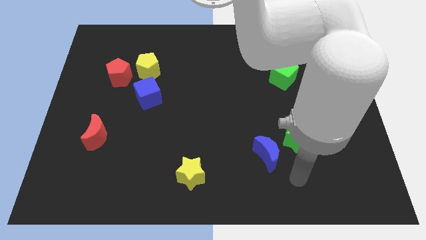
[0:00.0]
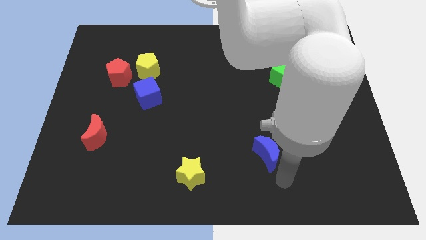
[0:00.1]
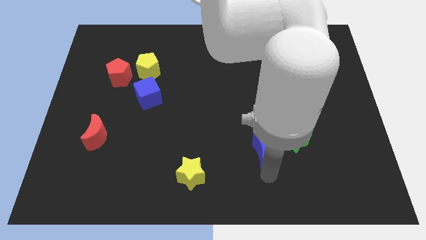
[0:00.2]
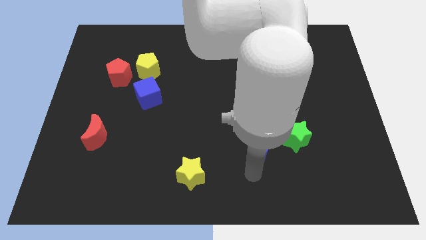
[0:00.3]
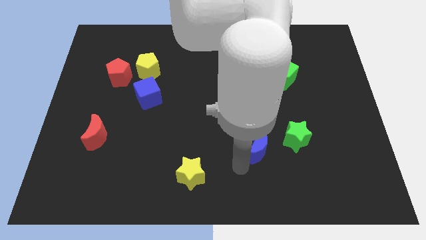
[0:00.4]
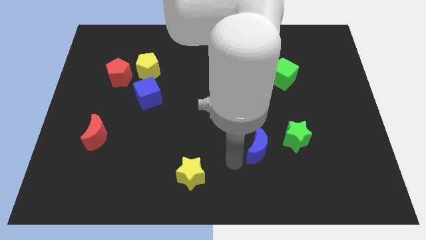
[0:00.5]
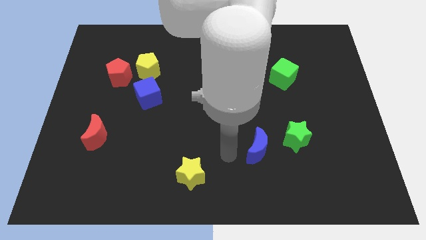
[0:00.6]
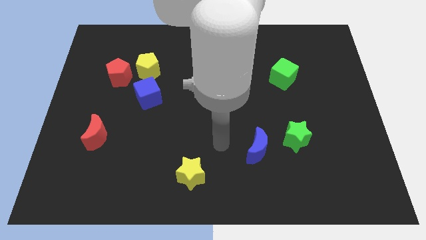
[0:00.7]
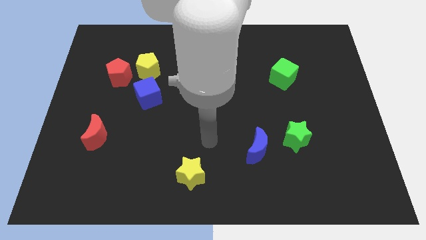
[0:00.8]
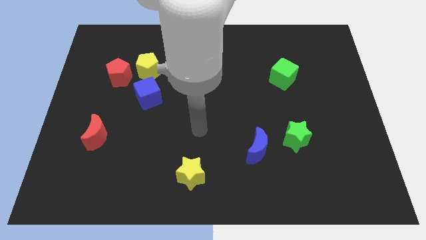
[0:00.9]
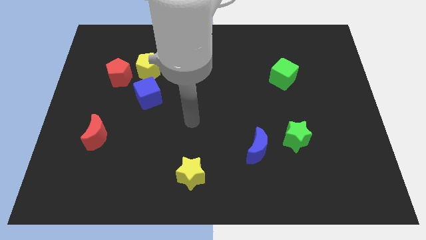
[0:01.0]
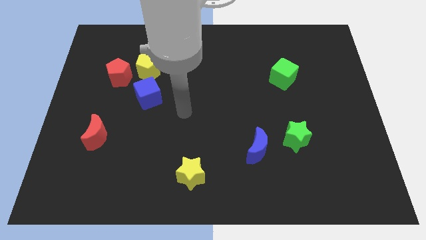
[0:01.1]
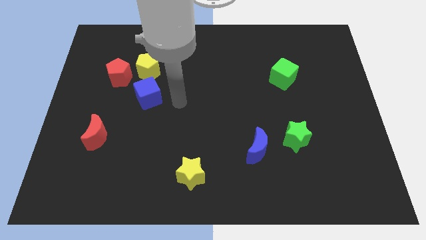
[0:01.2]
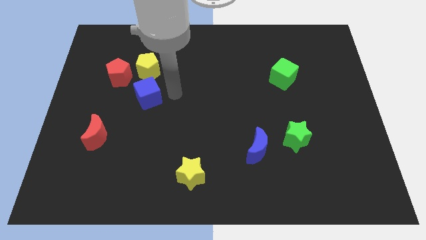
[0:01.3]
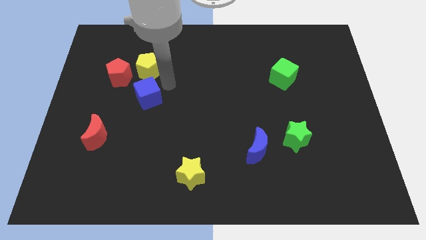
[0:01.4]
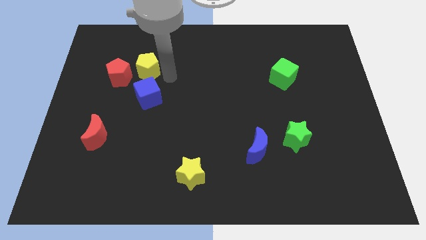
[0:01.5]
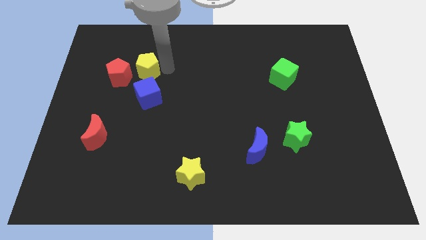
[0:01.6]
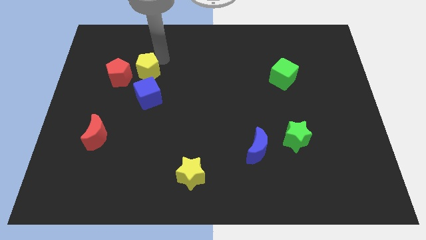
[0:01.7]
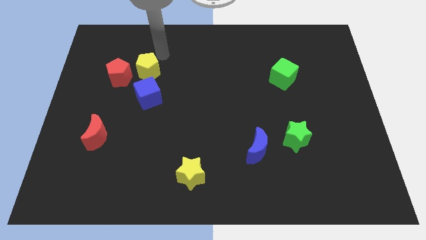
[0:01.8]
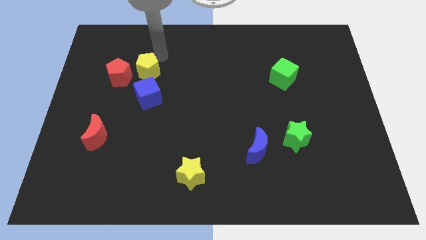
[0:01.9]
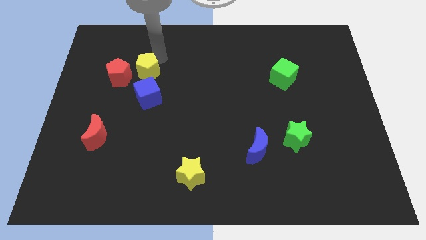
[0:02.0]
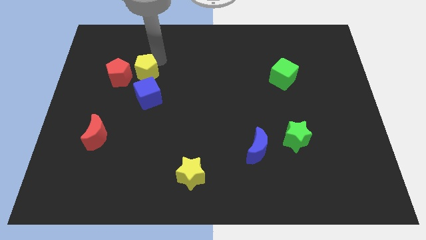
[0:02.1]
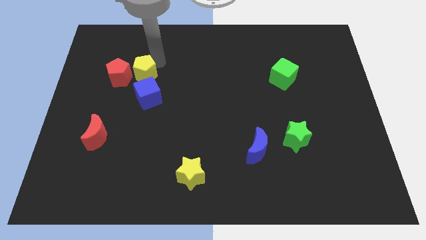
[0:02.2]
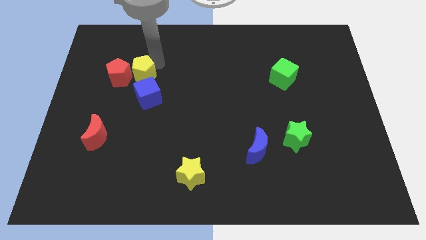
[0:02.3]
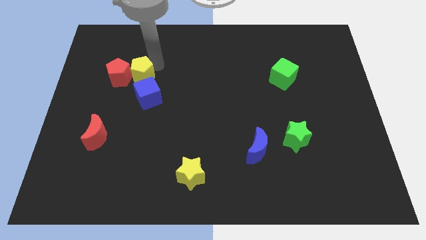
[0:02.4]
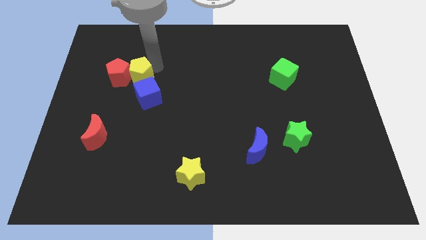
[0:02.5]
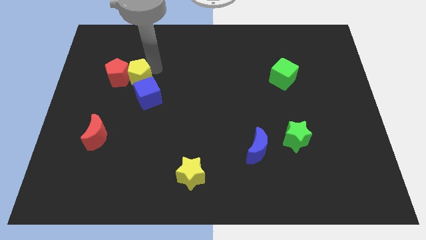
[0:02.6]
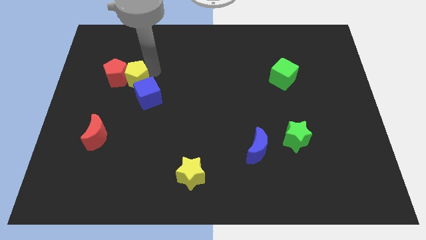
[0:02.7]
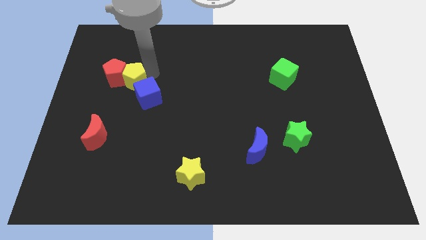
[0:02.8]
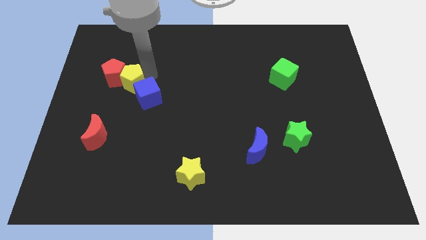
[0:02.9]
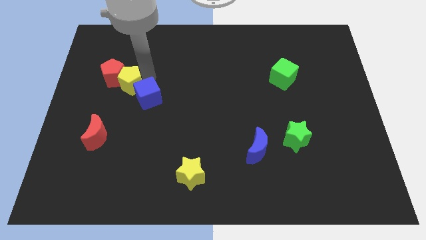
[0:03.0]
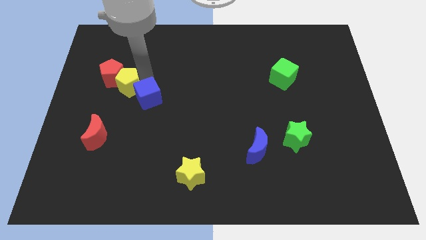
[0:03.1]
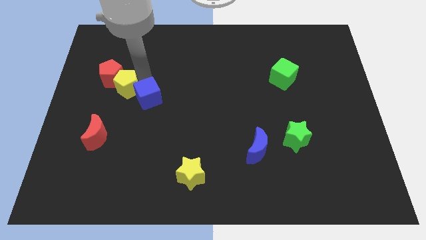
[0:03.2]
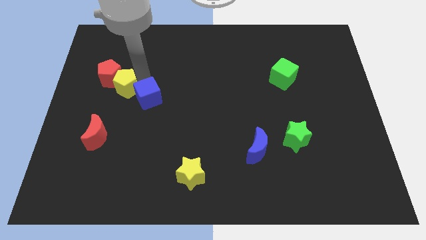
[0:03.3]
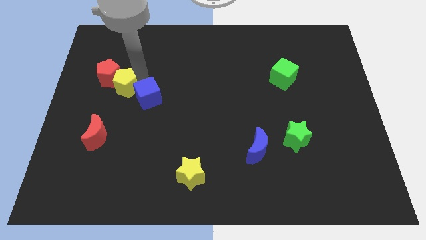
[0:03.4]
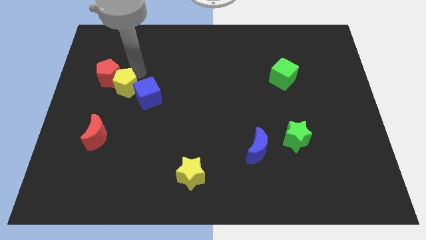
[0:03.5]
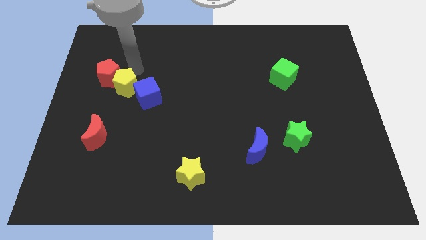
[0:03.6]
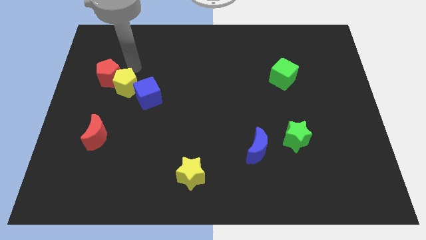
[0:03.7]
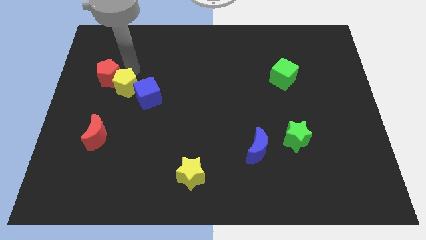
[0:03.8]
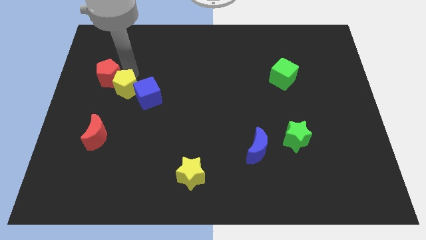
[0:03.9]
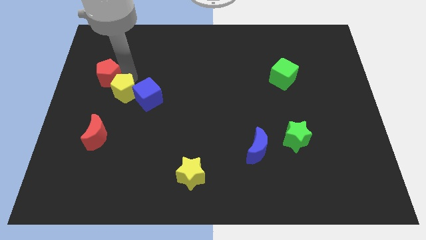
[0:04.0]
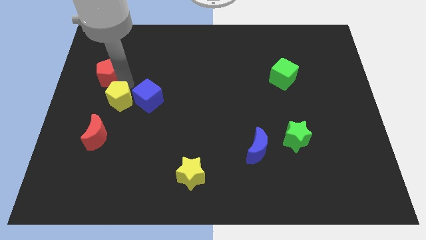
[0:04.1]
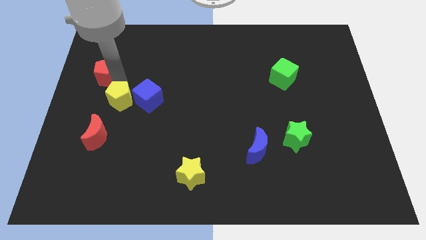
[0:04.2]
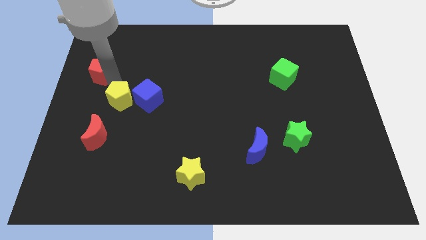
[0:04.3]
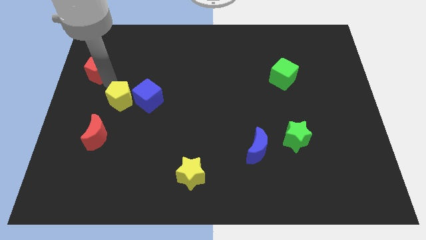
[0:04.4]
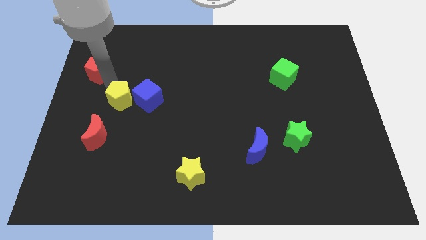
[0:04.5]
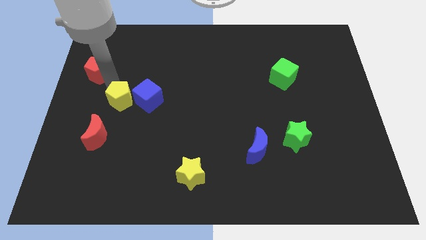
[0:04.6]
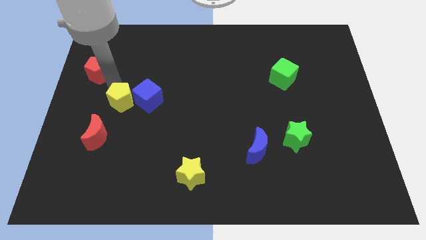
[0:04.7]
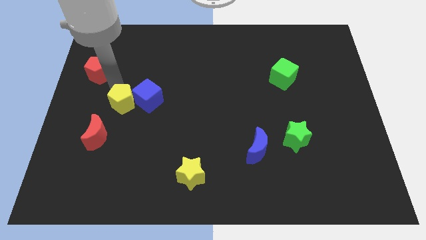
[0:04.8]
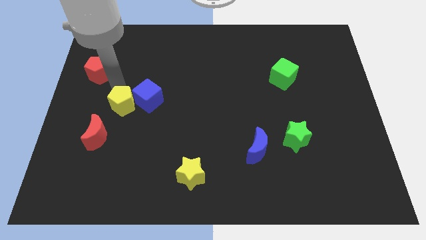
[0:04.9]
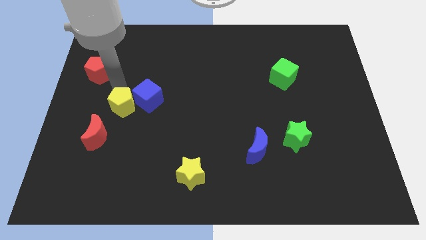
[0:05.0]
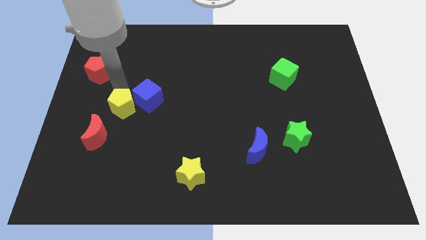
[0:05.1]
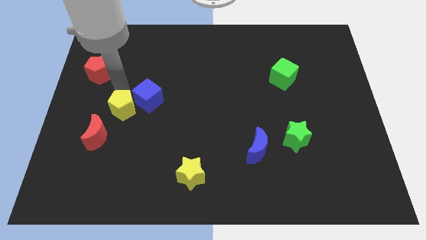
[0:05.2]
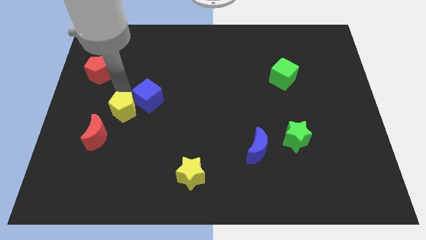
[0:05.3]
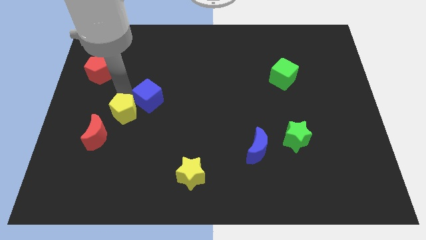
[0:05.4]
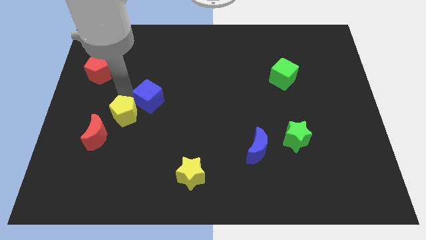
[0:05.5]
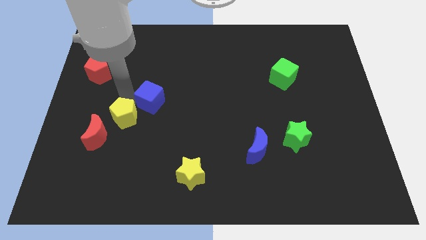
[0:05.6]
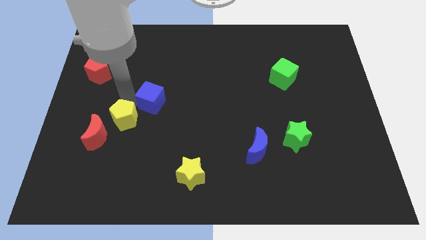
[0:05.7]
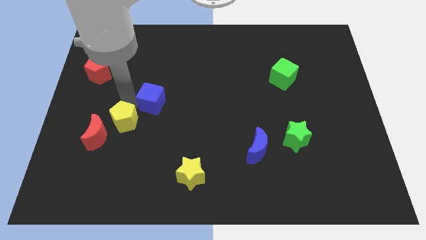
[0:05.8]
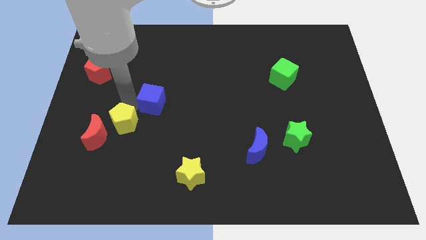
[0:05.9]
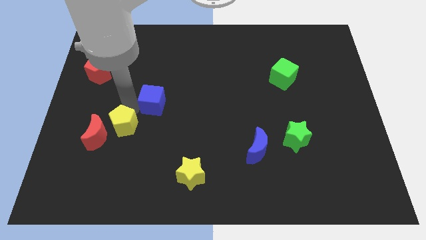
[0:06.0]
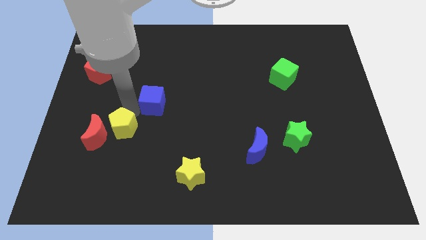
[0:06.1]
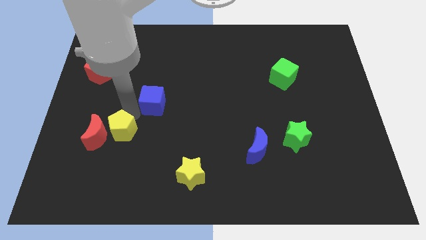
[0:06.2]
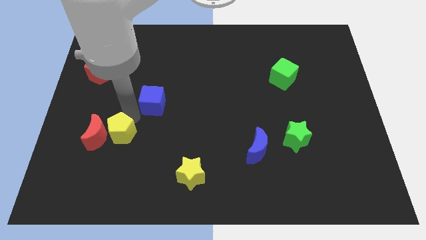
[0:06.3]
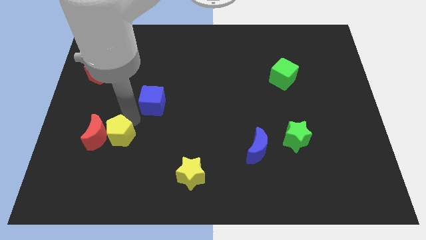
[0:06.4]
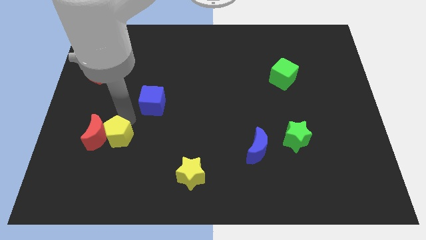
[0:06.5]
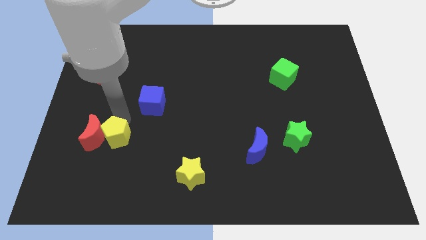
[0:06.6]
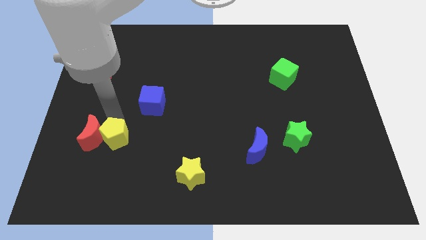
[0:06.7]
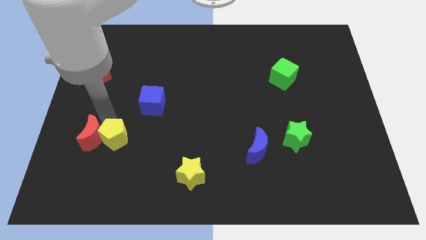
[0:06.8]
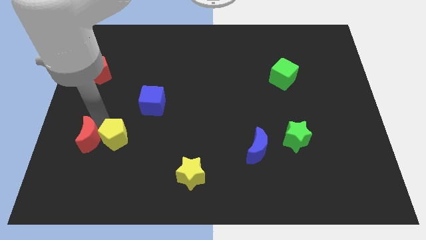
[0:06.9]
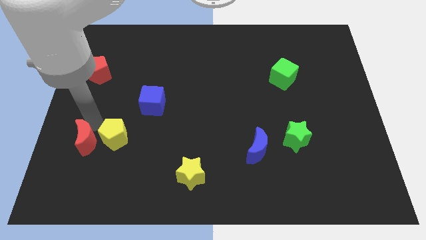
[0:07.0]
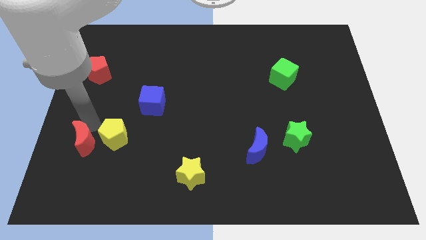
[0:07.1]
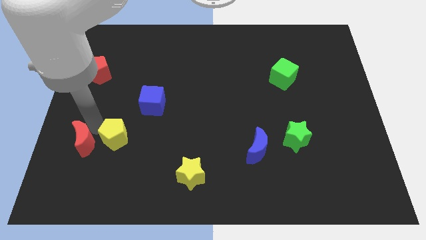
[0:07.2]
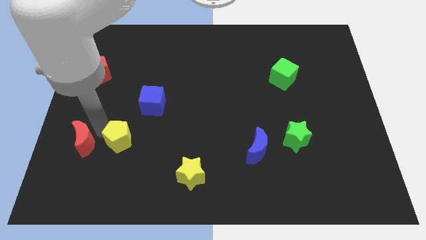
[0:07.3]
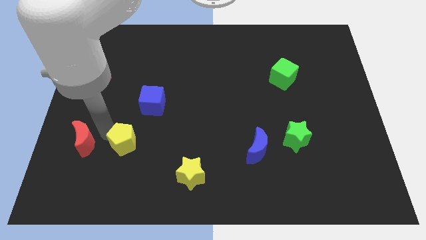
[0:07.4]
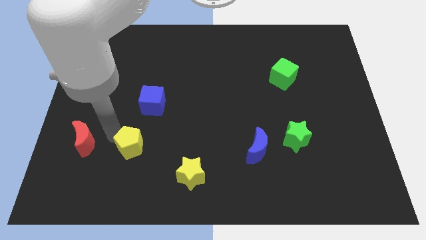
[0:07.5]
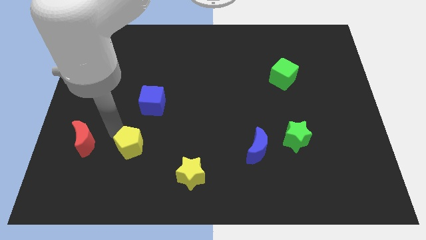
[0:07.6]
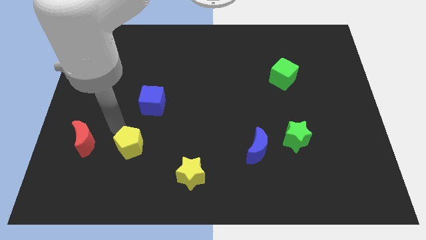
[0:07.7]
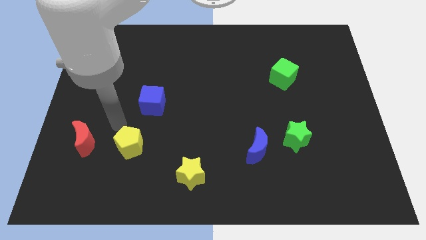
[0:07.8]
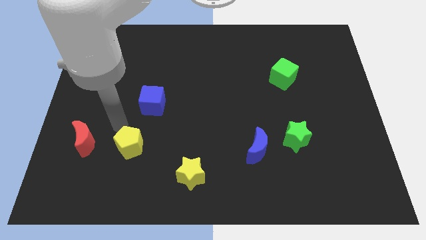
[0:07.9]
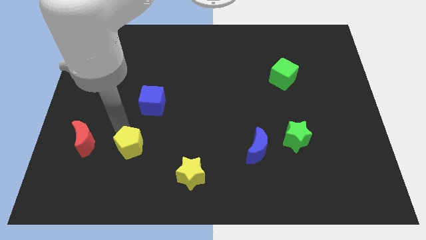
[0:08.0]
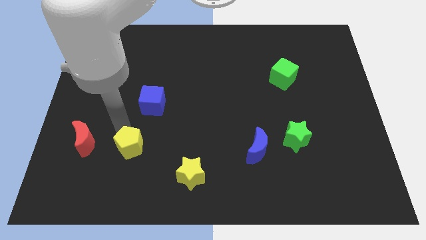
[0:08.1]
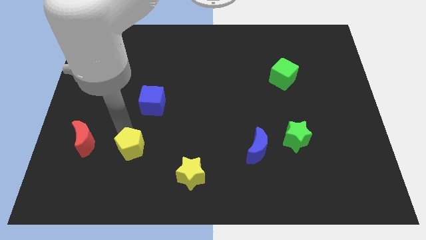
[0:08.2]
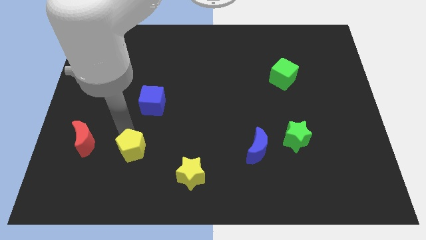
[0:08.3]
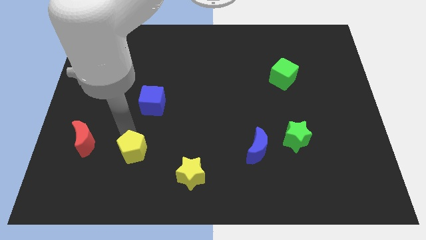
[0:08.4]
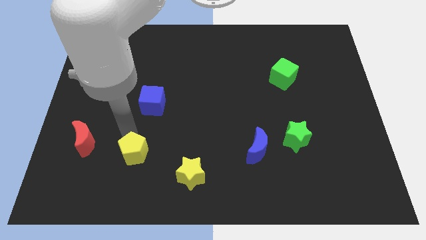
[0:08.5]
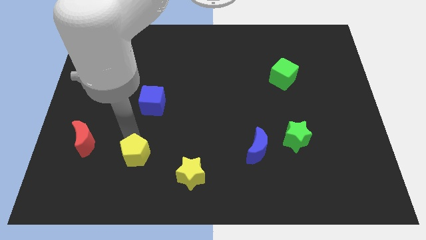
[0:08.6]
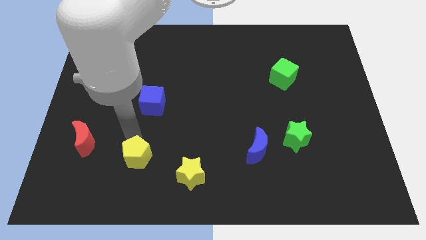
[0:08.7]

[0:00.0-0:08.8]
slide the yellow pentagon just left of the yellow star
